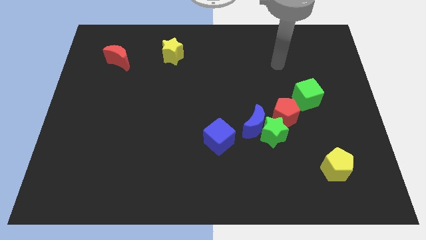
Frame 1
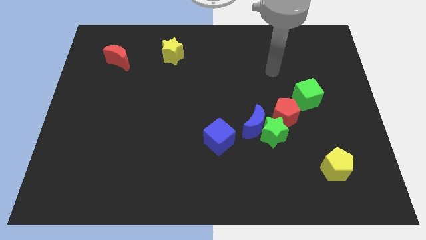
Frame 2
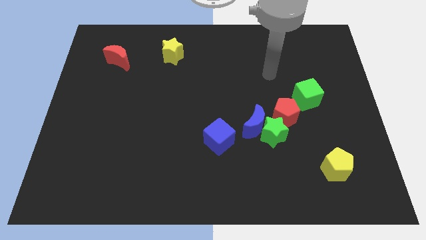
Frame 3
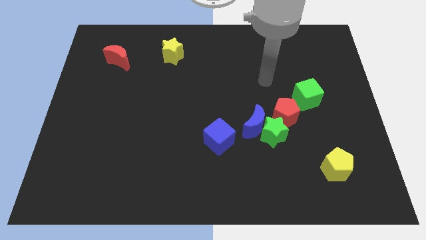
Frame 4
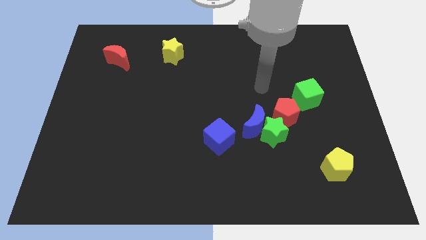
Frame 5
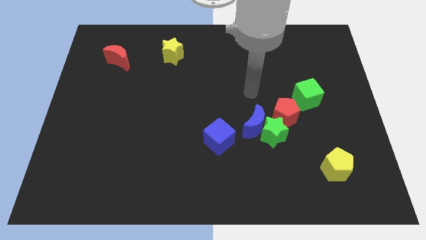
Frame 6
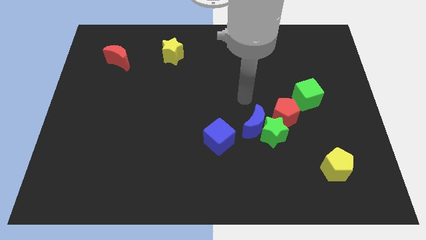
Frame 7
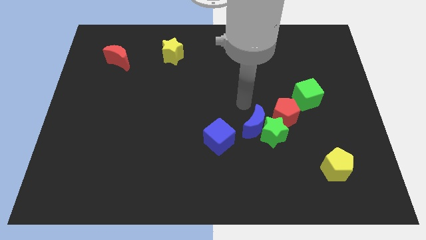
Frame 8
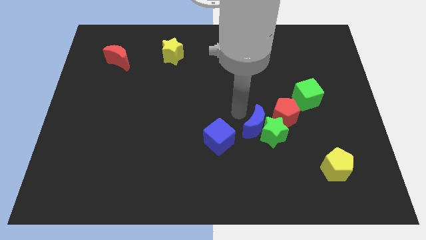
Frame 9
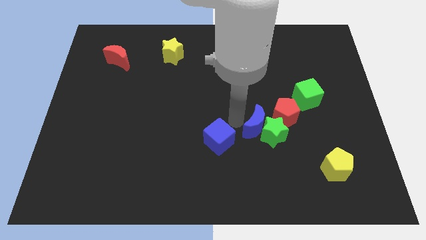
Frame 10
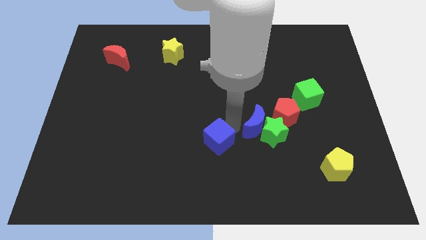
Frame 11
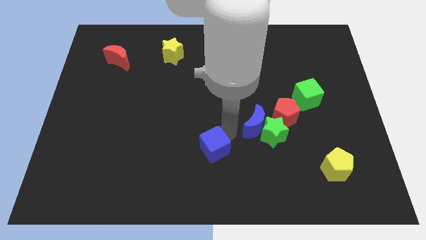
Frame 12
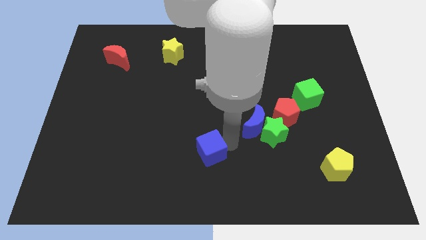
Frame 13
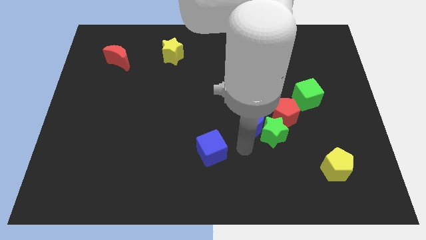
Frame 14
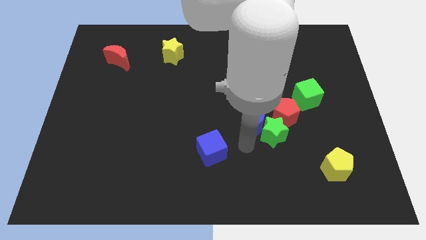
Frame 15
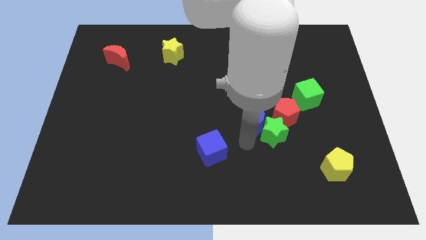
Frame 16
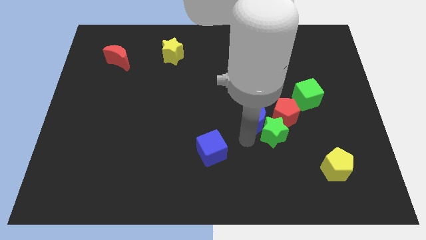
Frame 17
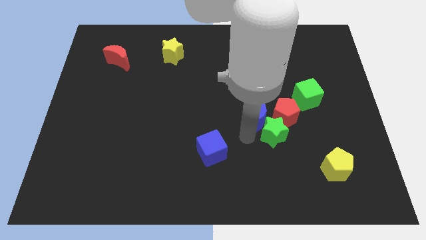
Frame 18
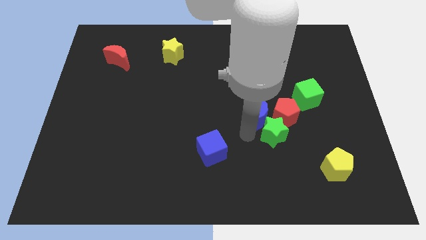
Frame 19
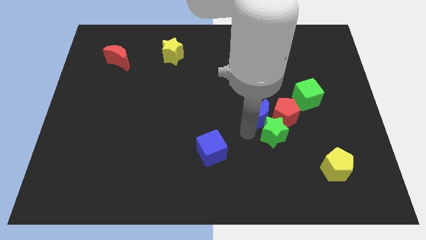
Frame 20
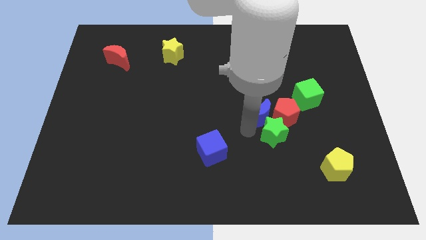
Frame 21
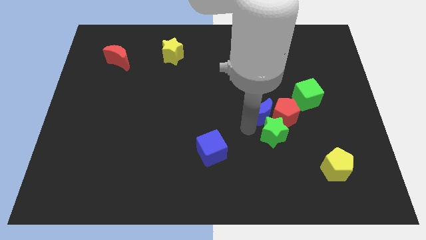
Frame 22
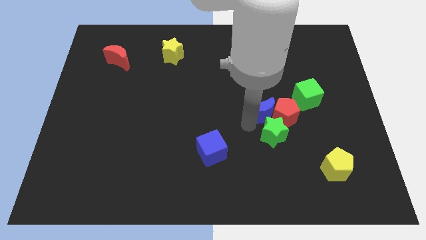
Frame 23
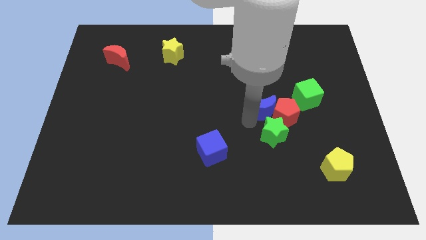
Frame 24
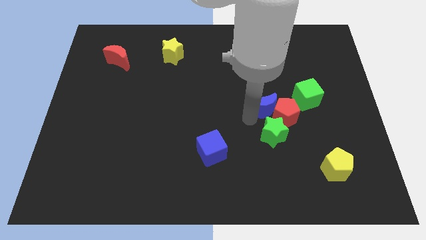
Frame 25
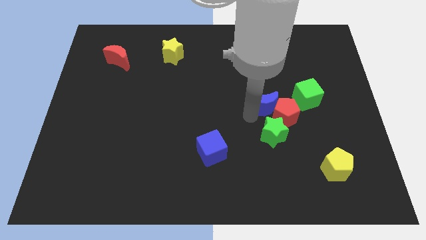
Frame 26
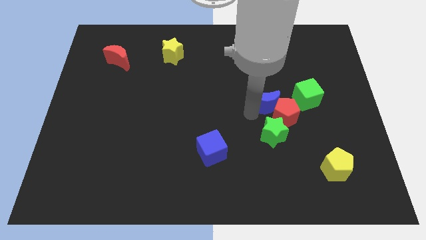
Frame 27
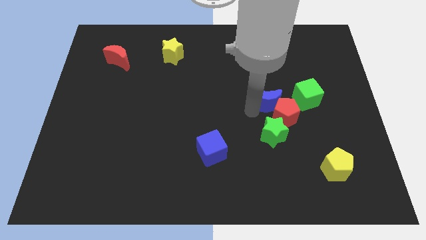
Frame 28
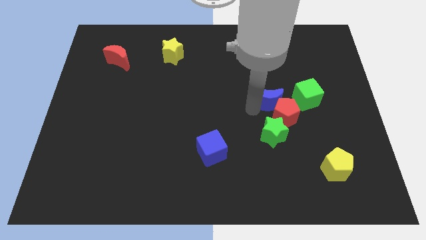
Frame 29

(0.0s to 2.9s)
slightly slide the blue moon diagonally upwards and to the right

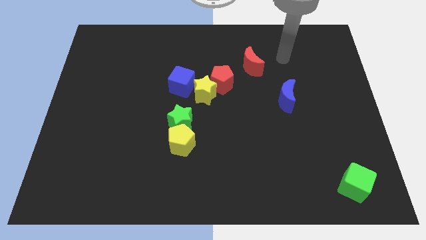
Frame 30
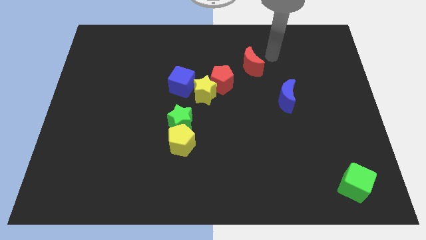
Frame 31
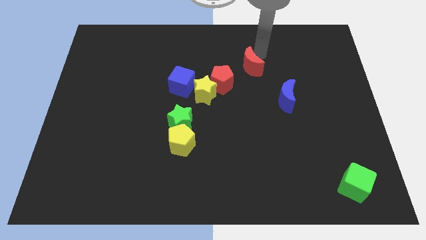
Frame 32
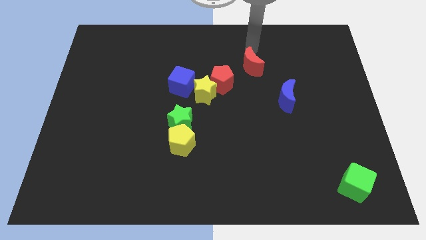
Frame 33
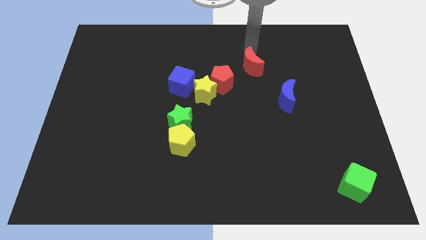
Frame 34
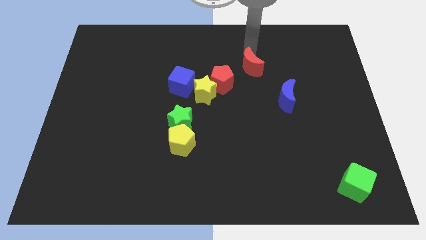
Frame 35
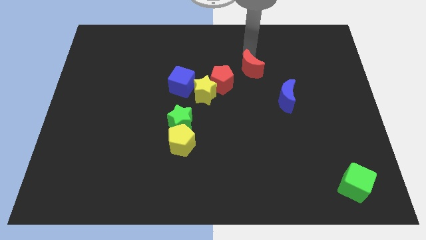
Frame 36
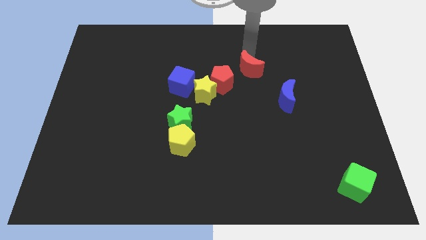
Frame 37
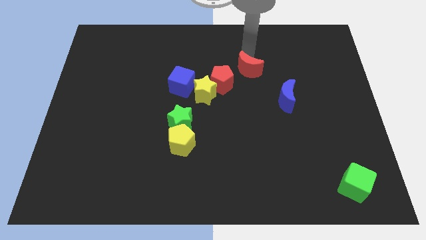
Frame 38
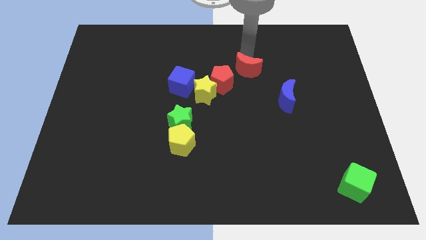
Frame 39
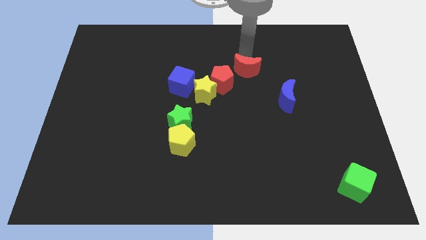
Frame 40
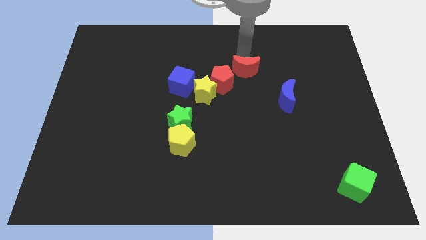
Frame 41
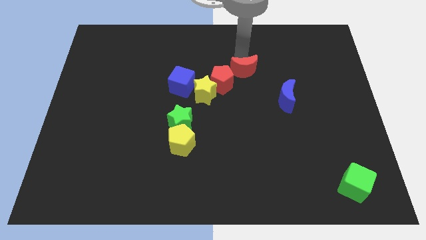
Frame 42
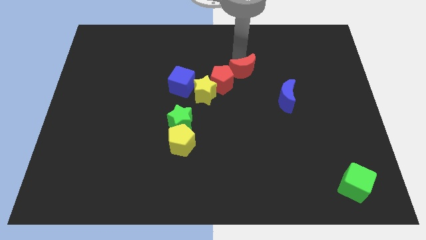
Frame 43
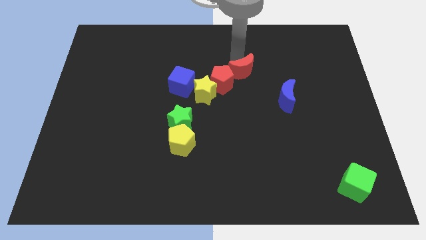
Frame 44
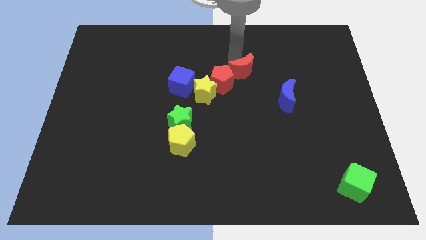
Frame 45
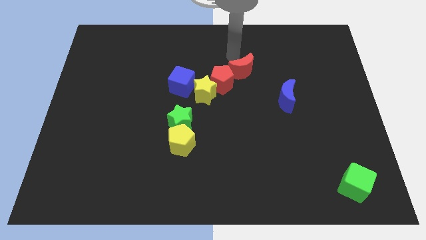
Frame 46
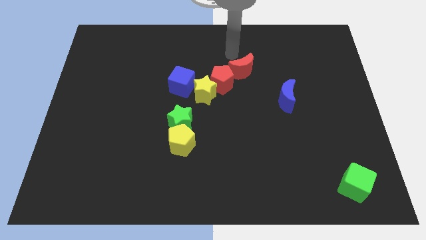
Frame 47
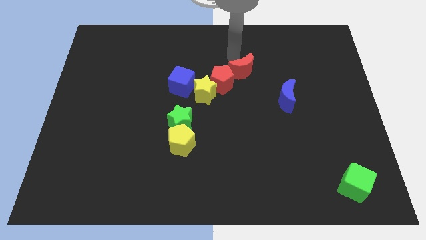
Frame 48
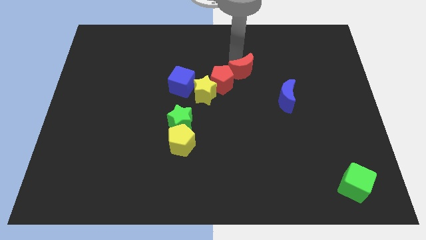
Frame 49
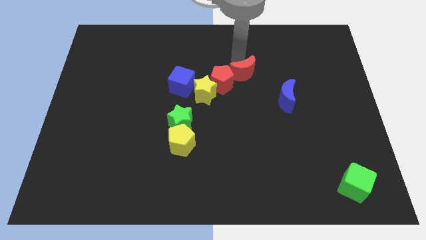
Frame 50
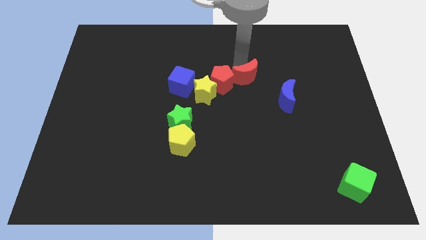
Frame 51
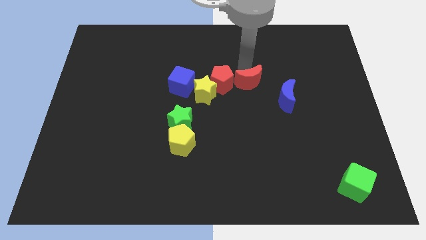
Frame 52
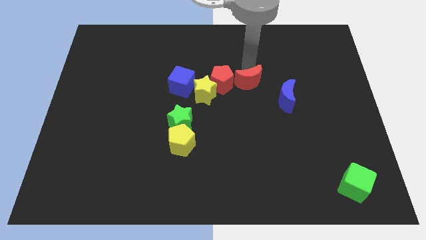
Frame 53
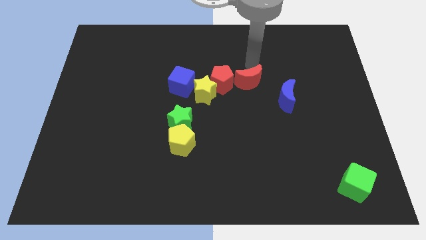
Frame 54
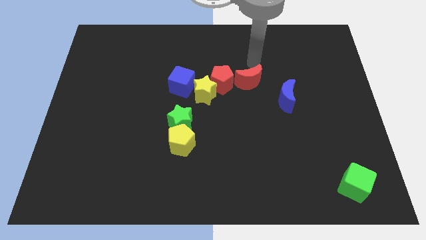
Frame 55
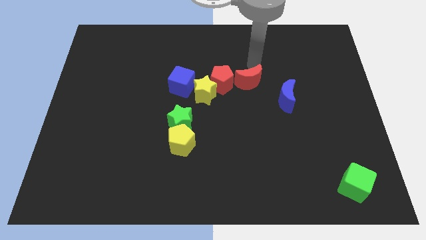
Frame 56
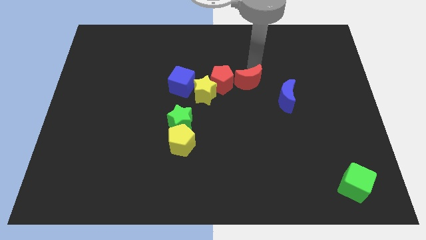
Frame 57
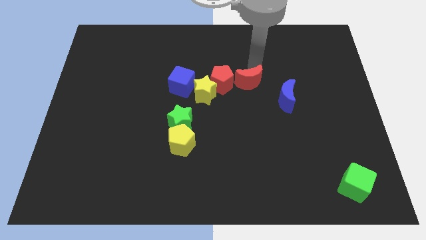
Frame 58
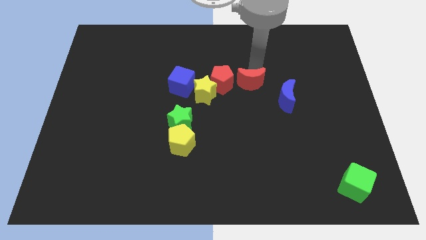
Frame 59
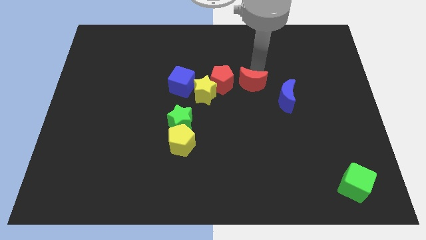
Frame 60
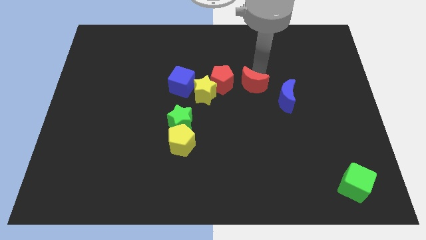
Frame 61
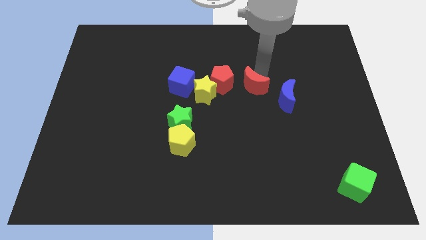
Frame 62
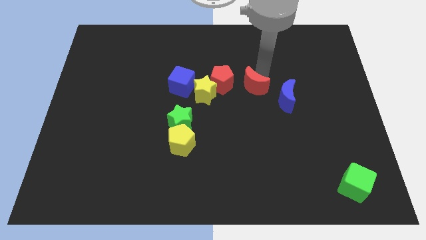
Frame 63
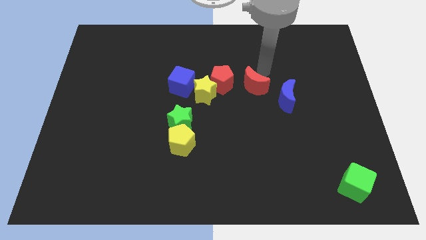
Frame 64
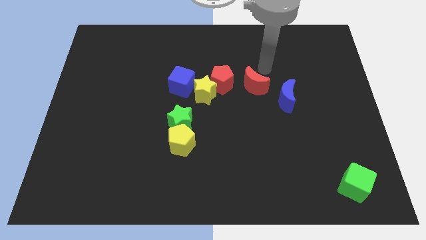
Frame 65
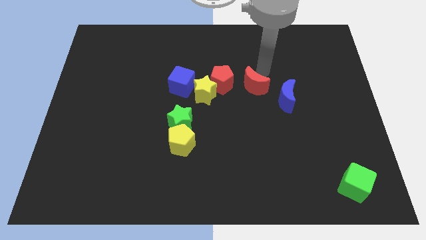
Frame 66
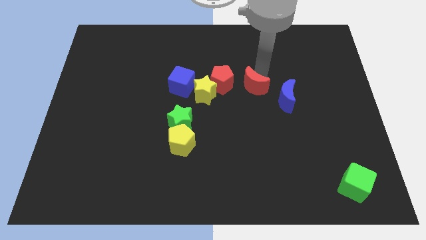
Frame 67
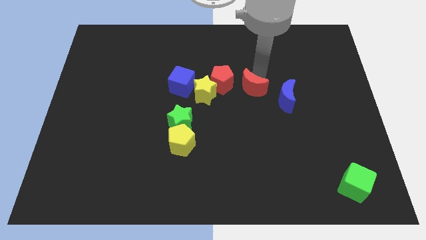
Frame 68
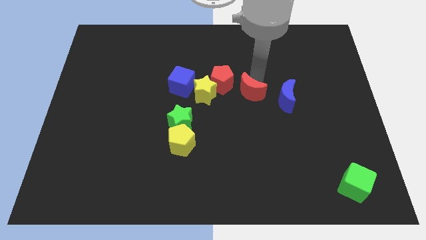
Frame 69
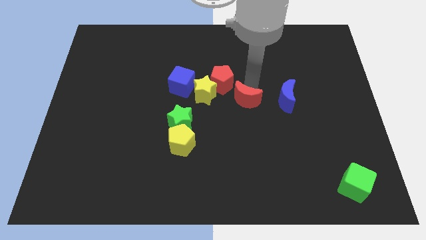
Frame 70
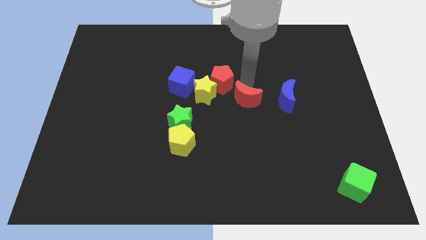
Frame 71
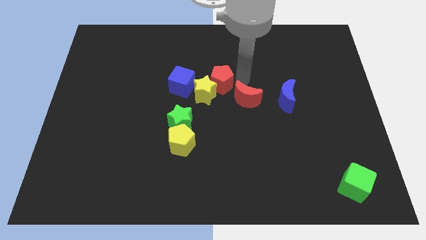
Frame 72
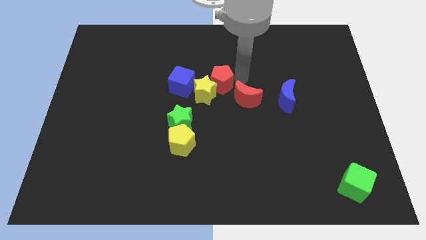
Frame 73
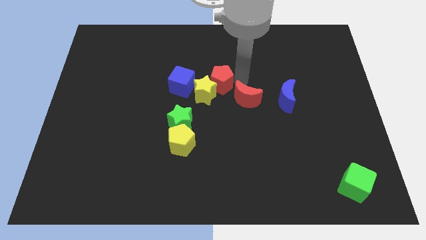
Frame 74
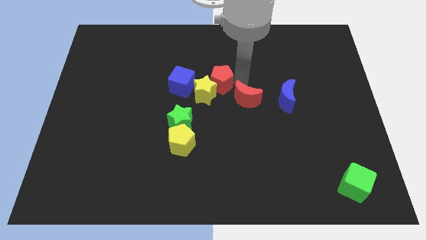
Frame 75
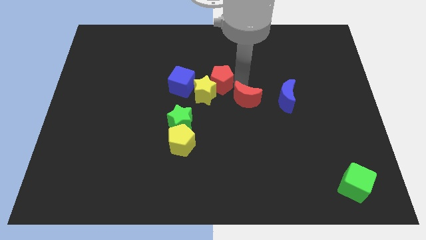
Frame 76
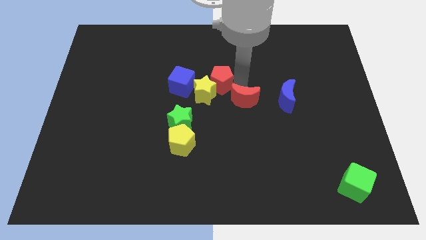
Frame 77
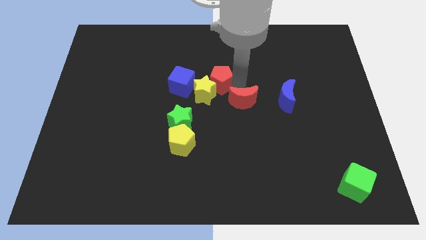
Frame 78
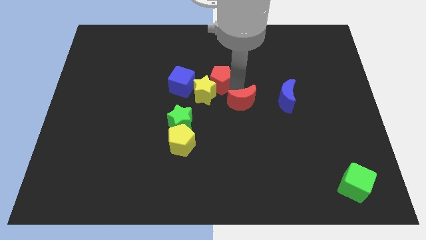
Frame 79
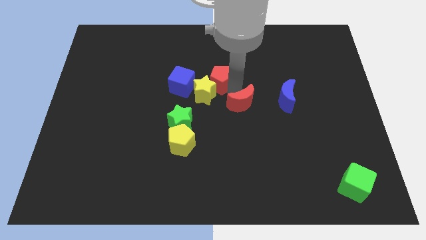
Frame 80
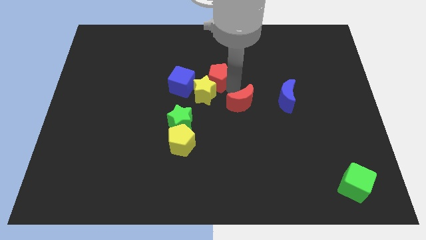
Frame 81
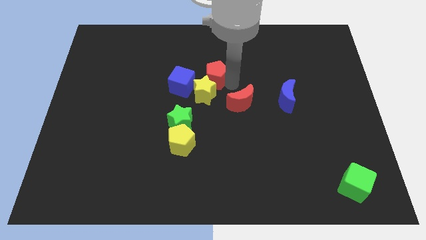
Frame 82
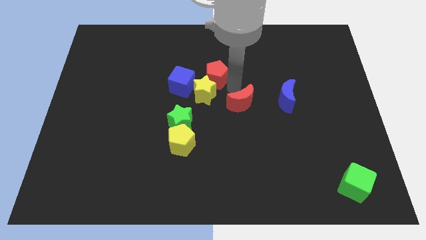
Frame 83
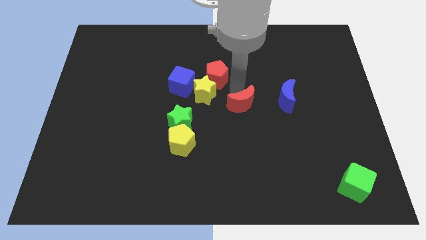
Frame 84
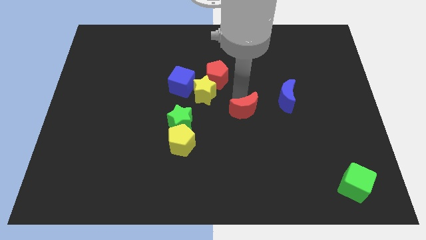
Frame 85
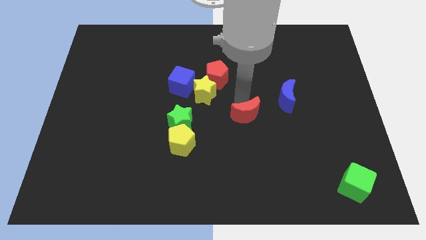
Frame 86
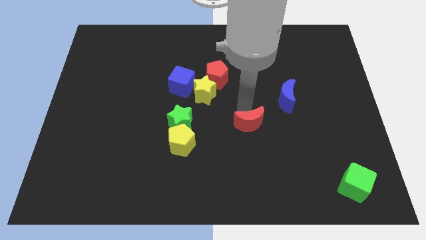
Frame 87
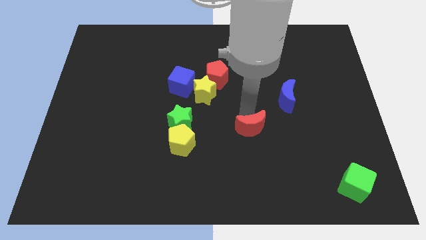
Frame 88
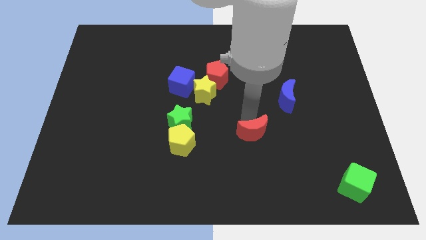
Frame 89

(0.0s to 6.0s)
slide the red moon downwards
